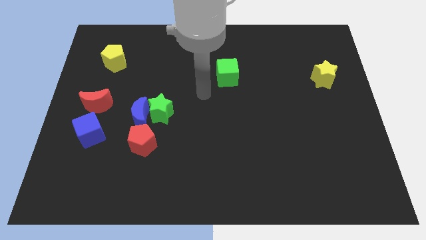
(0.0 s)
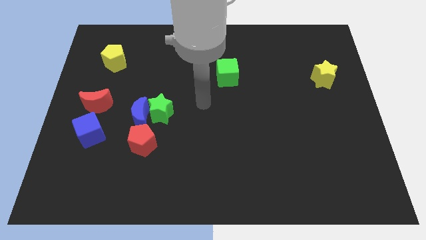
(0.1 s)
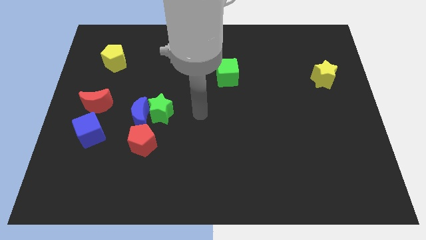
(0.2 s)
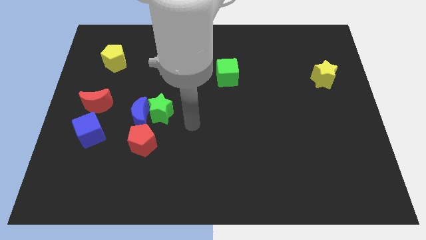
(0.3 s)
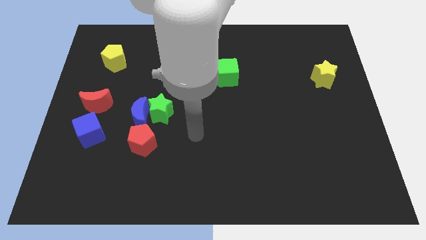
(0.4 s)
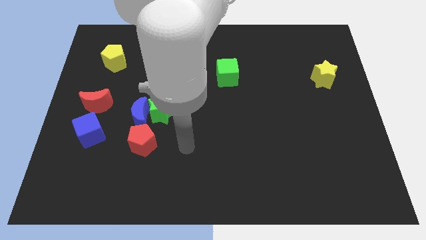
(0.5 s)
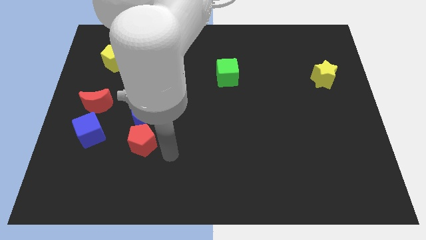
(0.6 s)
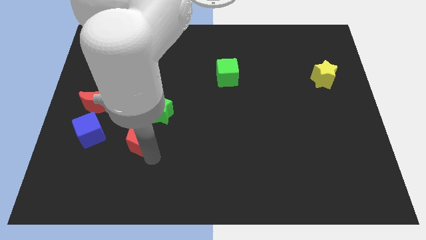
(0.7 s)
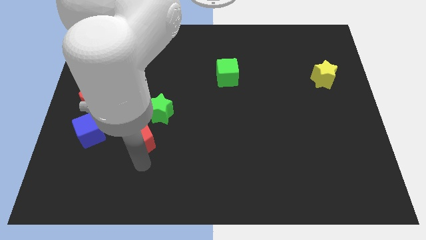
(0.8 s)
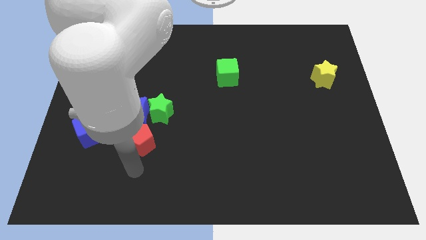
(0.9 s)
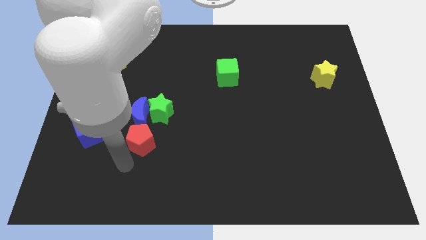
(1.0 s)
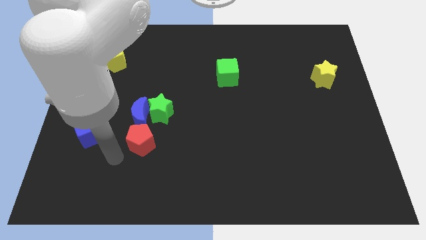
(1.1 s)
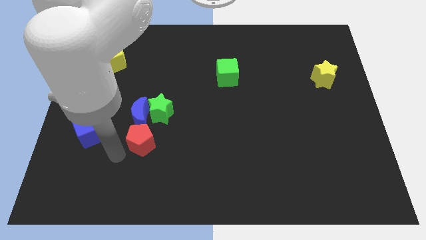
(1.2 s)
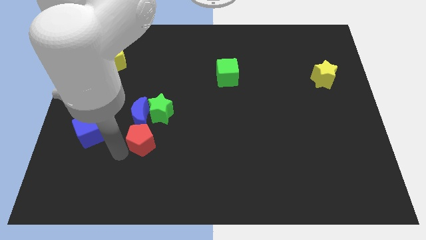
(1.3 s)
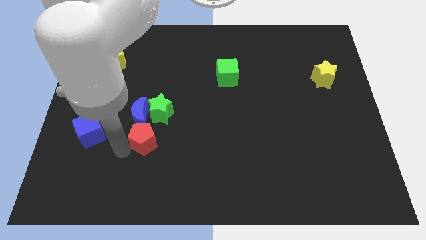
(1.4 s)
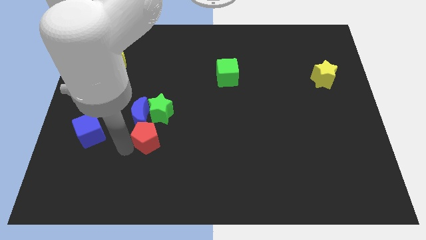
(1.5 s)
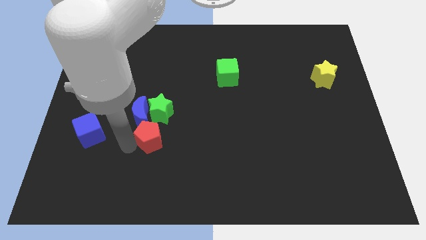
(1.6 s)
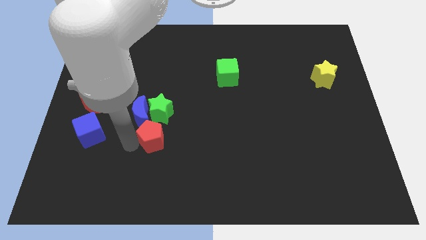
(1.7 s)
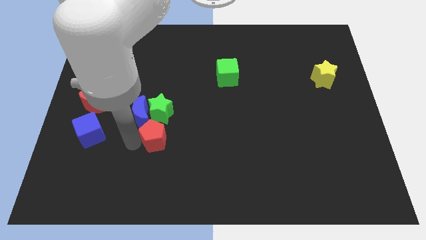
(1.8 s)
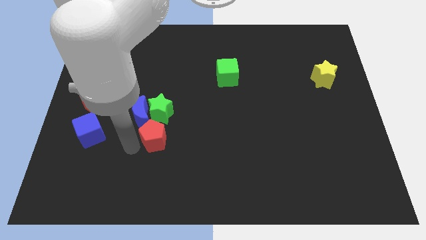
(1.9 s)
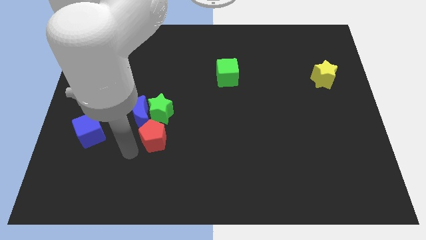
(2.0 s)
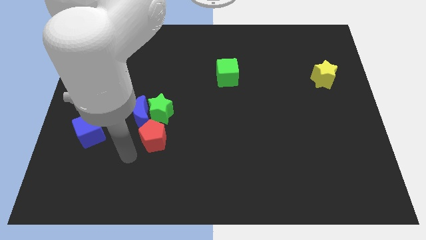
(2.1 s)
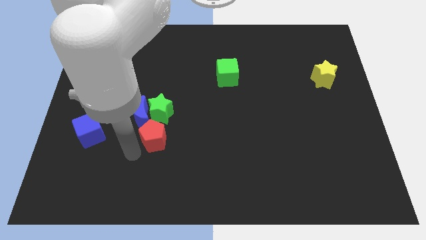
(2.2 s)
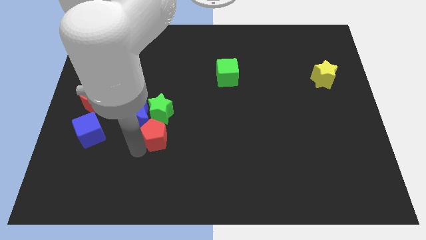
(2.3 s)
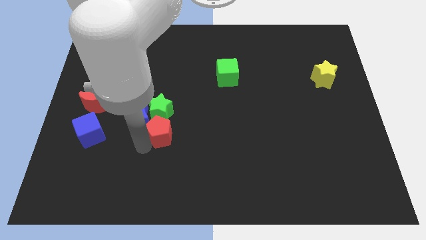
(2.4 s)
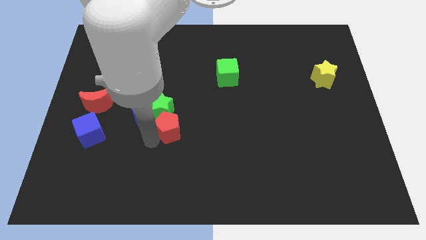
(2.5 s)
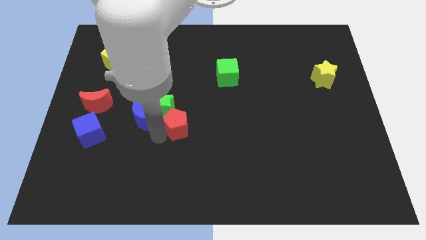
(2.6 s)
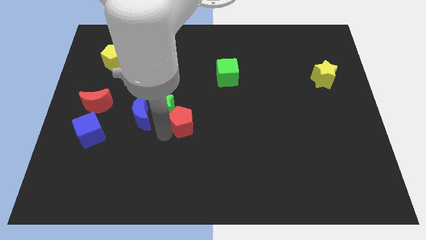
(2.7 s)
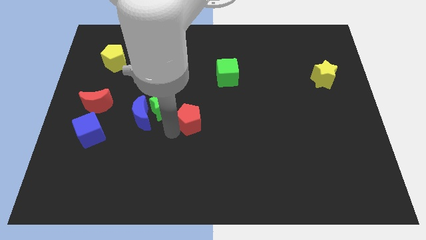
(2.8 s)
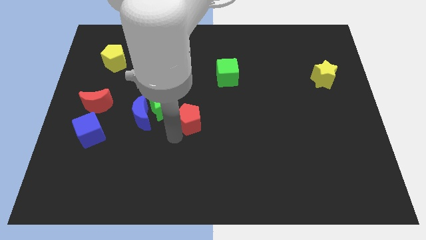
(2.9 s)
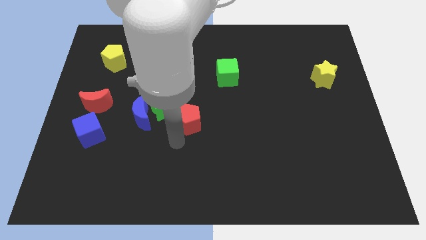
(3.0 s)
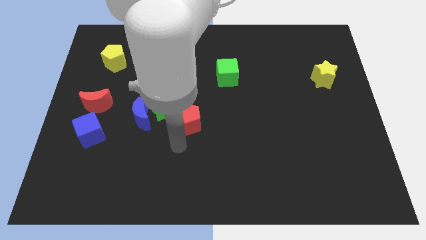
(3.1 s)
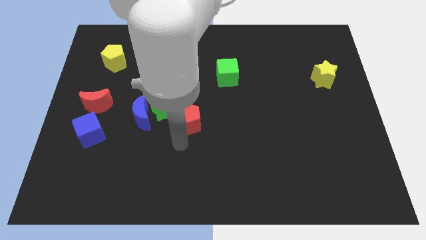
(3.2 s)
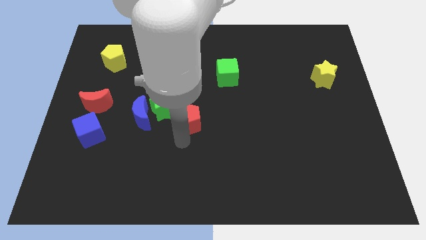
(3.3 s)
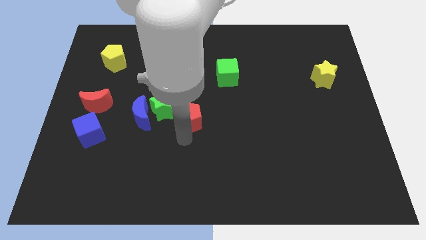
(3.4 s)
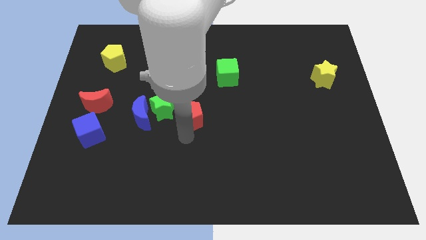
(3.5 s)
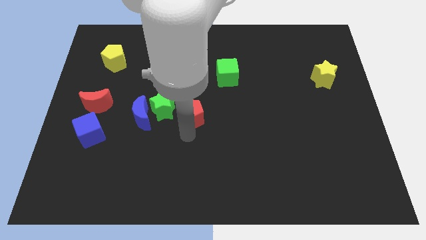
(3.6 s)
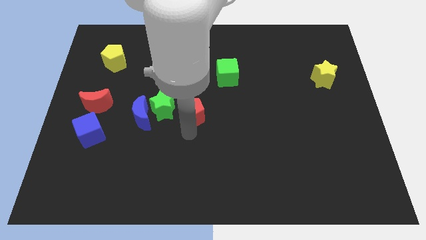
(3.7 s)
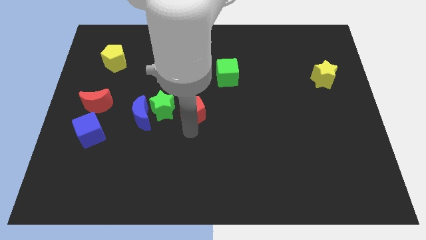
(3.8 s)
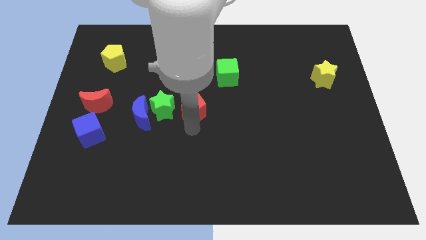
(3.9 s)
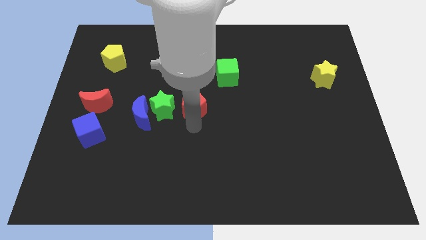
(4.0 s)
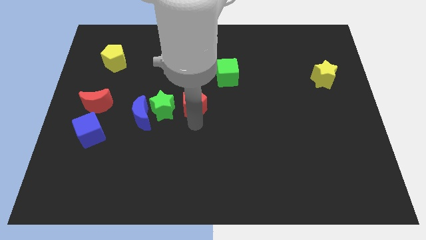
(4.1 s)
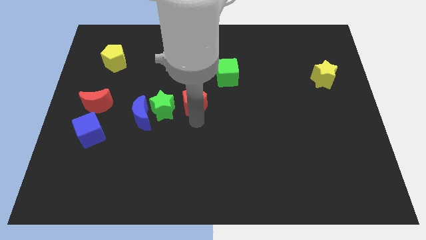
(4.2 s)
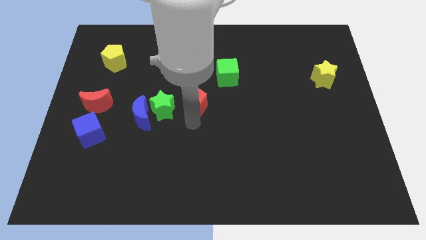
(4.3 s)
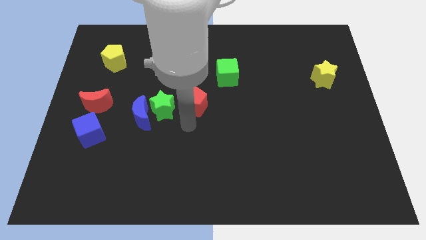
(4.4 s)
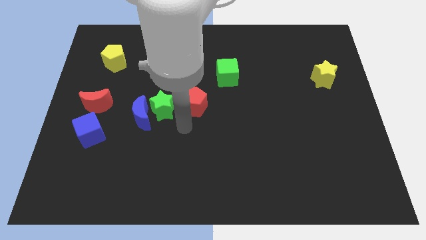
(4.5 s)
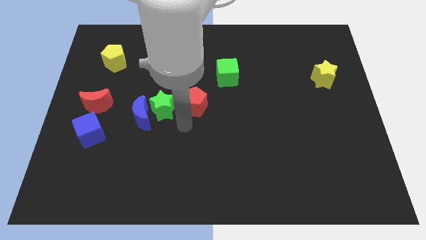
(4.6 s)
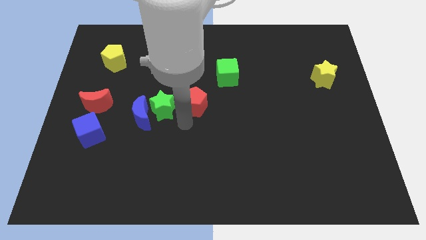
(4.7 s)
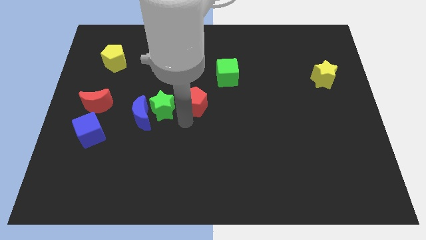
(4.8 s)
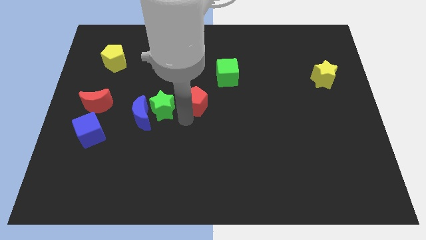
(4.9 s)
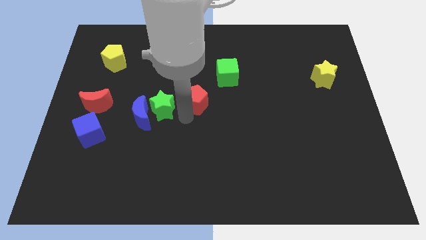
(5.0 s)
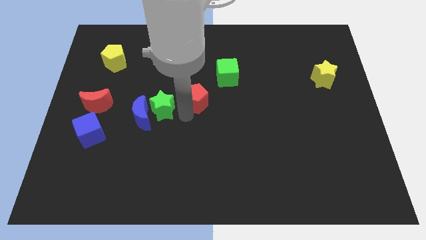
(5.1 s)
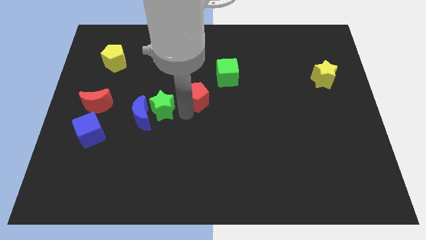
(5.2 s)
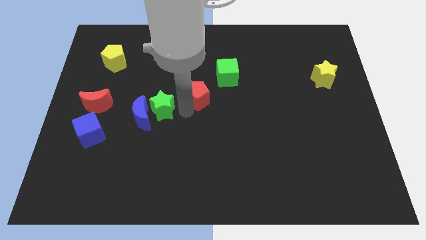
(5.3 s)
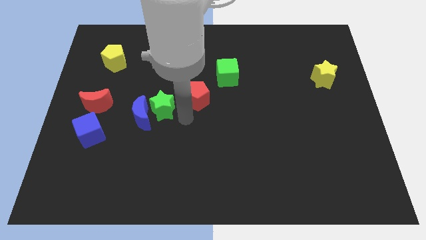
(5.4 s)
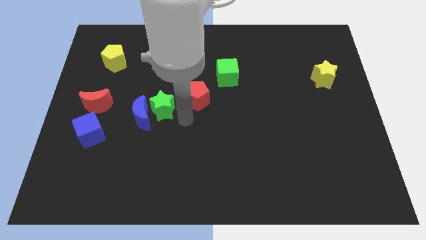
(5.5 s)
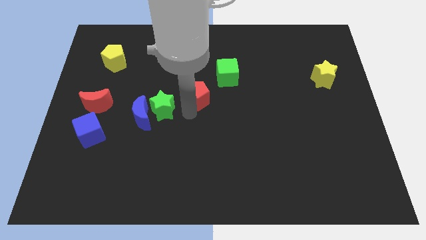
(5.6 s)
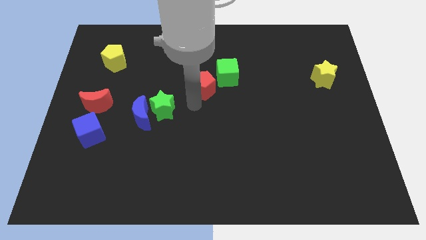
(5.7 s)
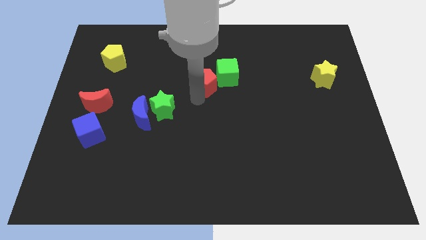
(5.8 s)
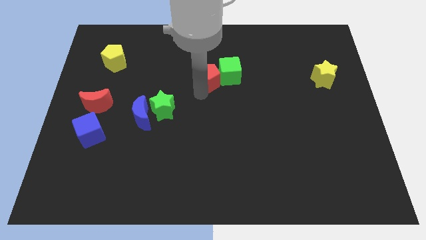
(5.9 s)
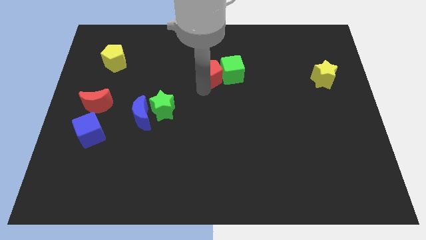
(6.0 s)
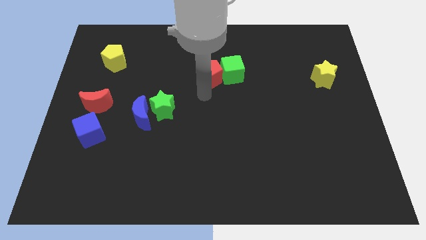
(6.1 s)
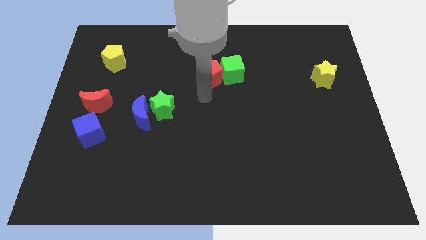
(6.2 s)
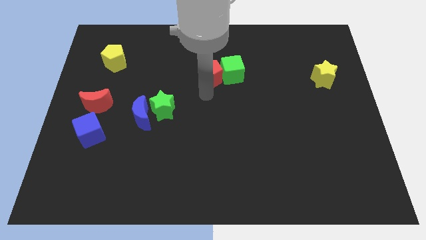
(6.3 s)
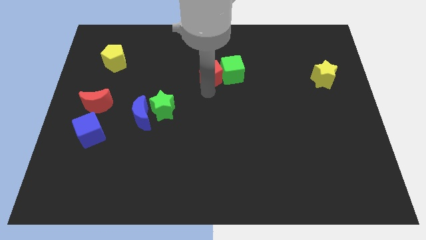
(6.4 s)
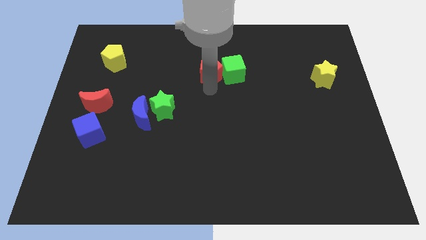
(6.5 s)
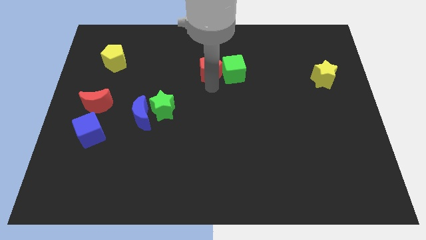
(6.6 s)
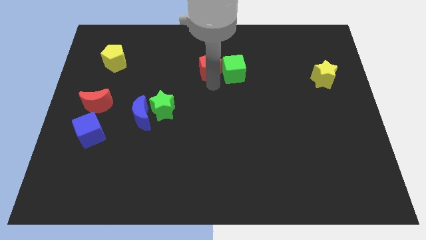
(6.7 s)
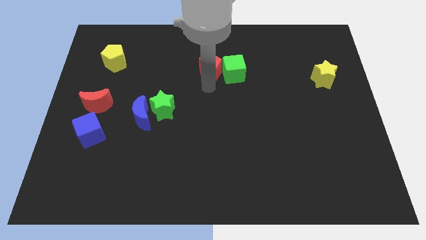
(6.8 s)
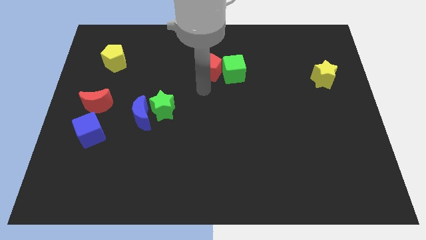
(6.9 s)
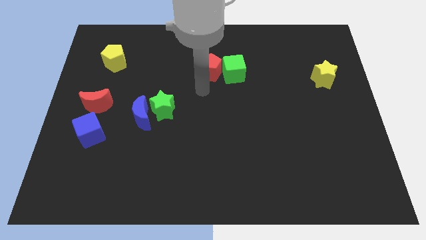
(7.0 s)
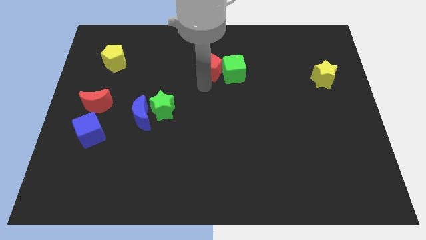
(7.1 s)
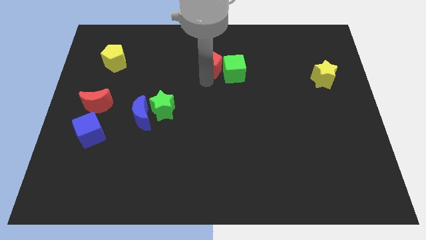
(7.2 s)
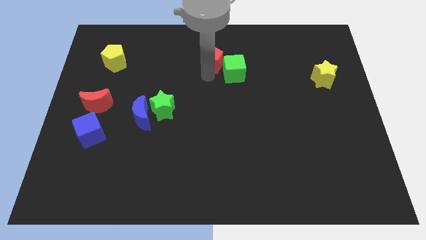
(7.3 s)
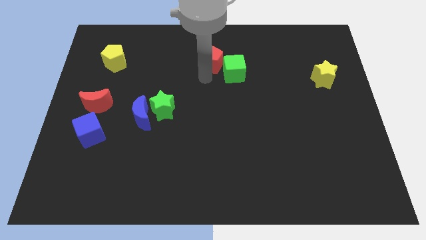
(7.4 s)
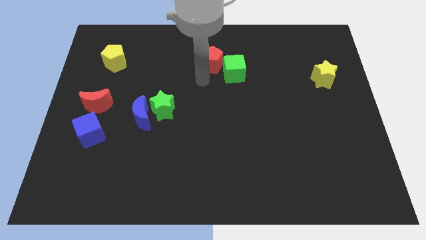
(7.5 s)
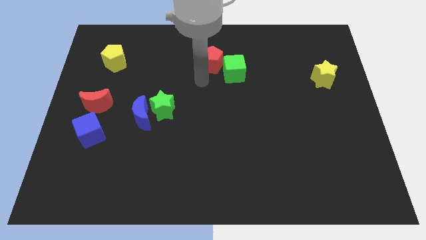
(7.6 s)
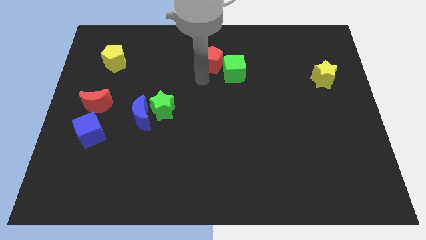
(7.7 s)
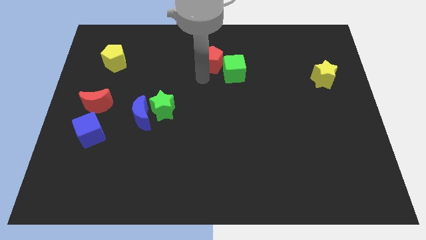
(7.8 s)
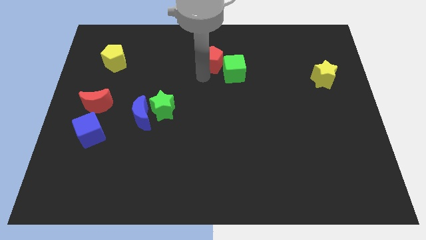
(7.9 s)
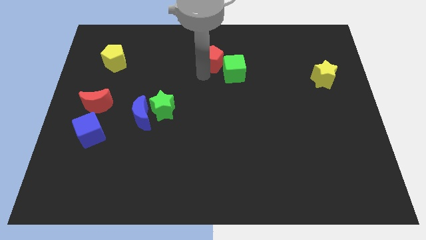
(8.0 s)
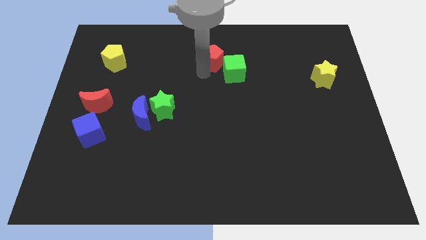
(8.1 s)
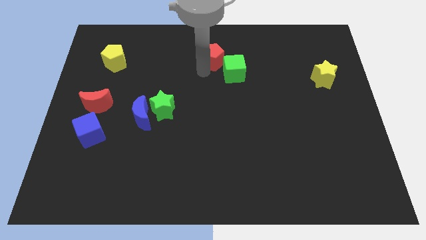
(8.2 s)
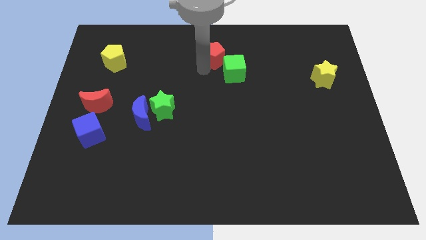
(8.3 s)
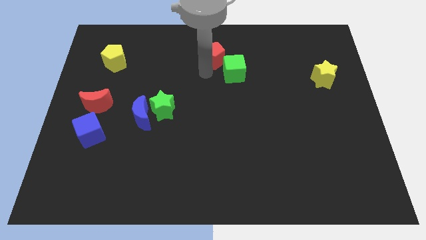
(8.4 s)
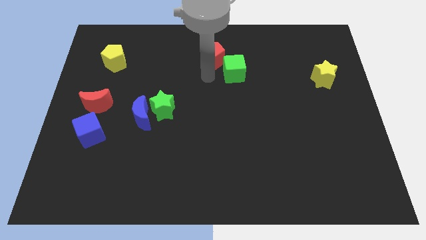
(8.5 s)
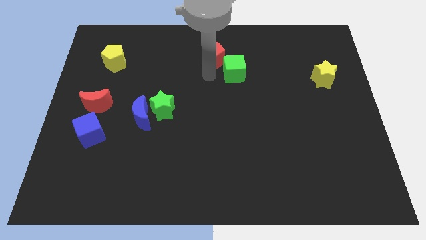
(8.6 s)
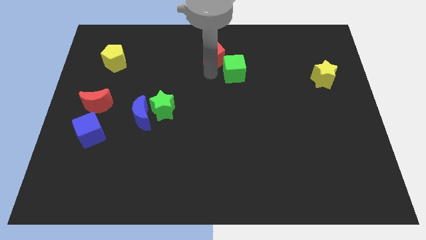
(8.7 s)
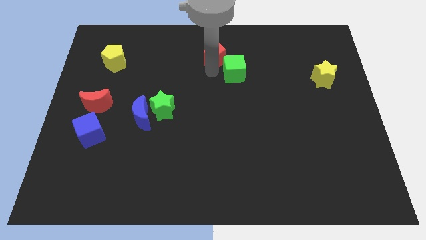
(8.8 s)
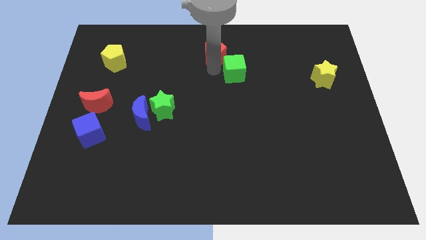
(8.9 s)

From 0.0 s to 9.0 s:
slide the red pentagon to the top side
